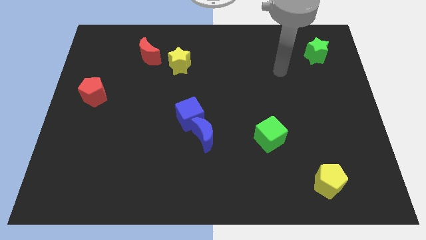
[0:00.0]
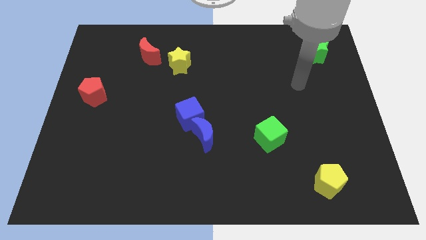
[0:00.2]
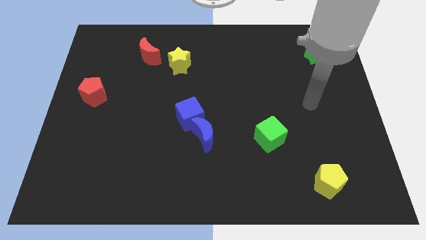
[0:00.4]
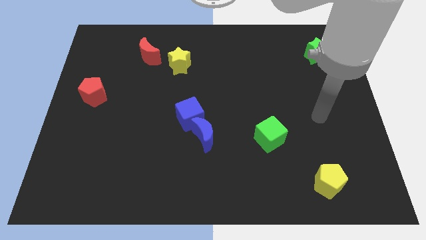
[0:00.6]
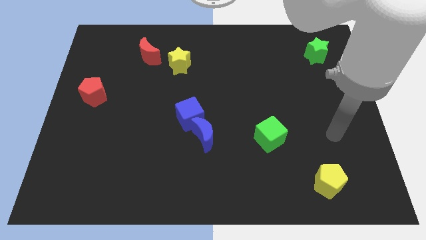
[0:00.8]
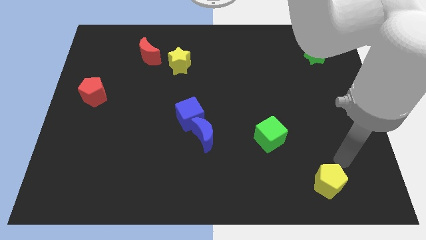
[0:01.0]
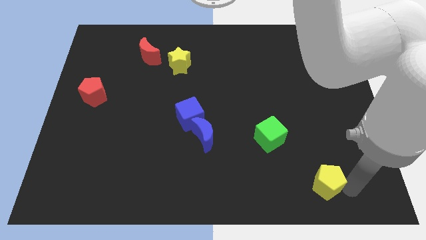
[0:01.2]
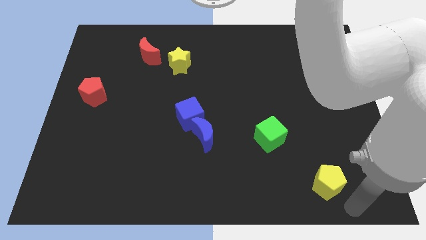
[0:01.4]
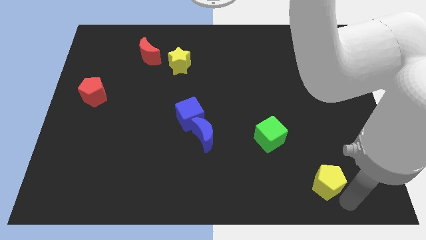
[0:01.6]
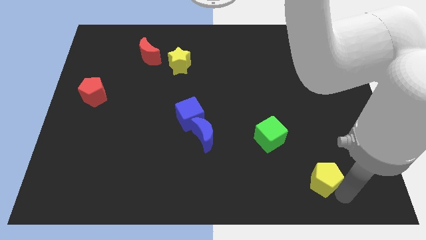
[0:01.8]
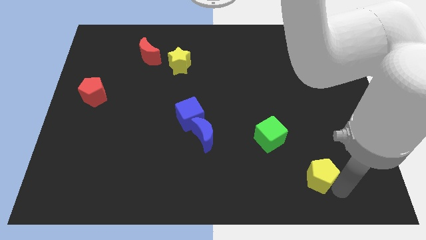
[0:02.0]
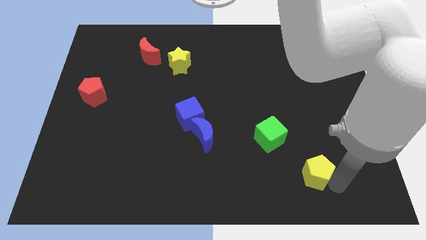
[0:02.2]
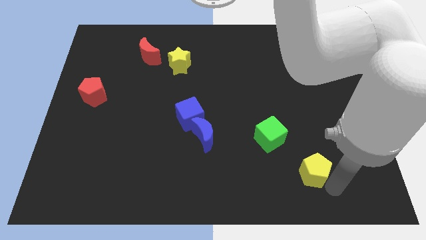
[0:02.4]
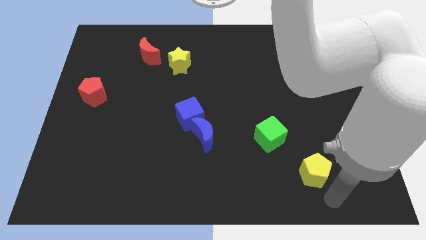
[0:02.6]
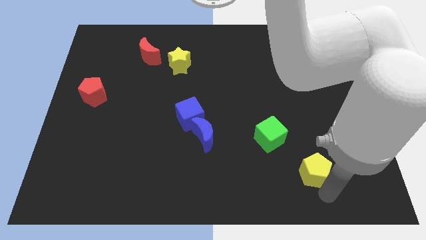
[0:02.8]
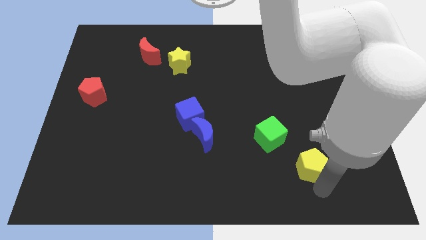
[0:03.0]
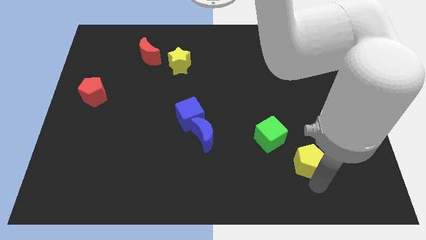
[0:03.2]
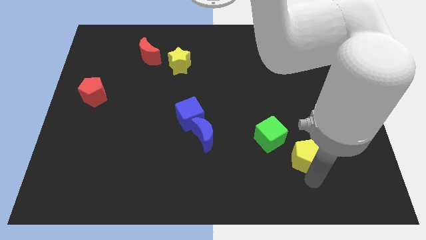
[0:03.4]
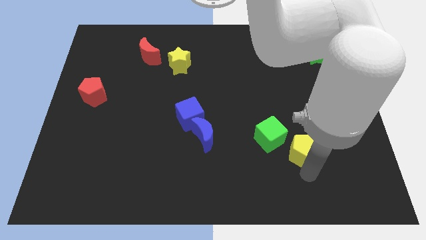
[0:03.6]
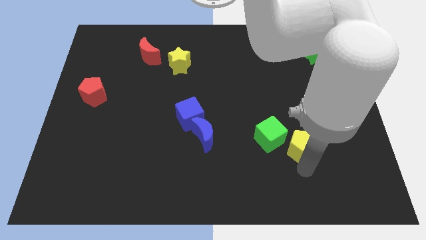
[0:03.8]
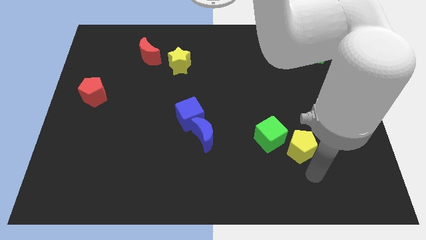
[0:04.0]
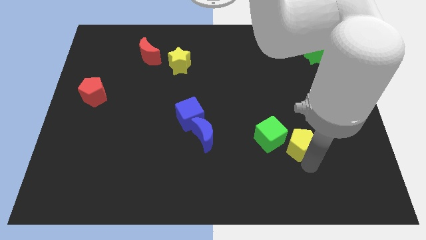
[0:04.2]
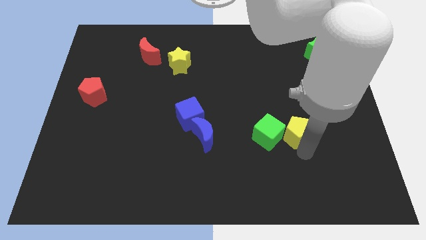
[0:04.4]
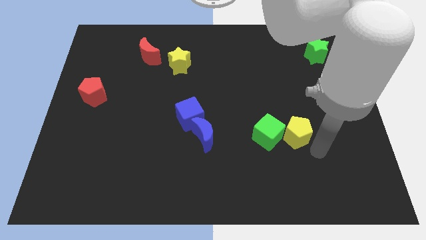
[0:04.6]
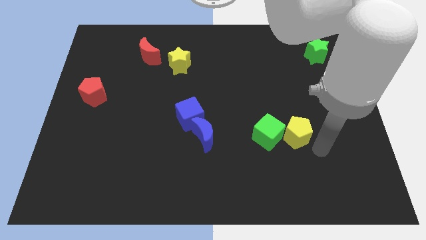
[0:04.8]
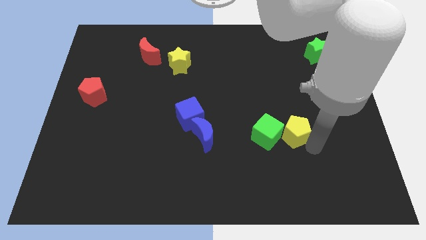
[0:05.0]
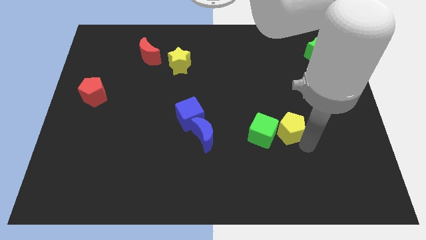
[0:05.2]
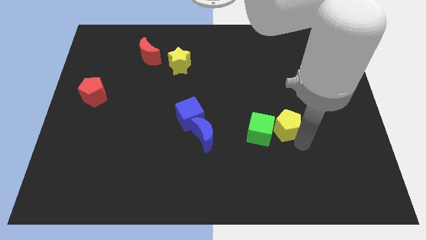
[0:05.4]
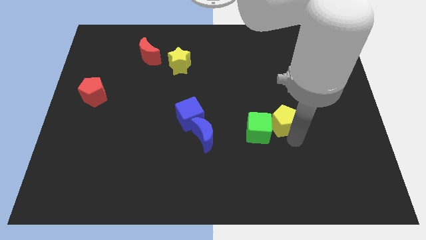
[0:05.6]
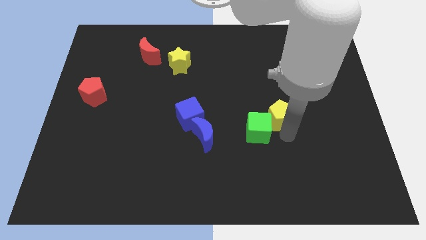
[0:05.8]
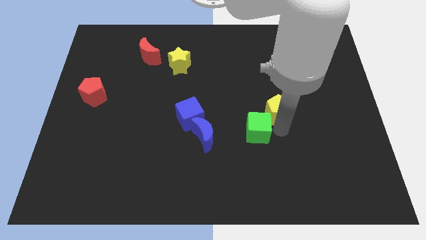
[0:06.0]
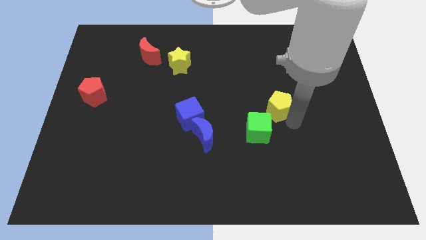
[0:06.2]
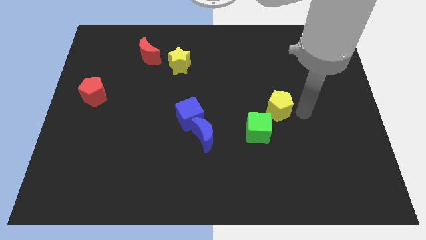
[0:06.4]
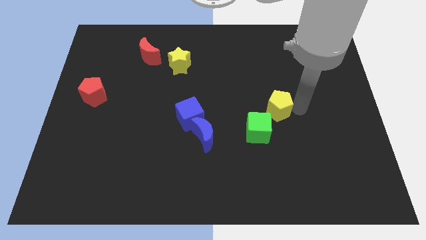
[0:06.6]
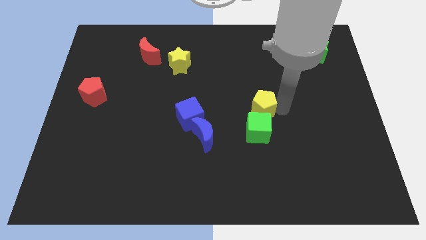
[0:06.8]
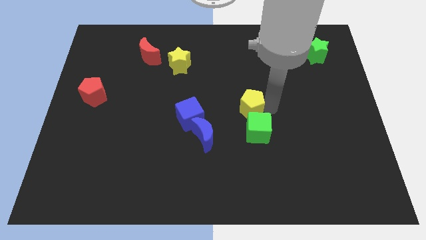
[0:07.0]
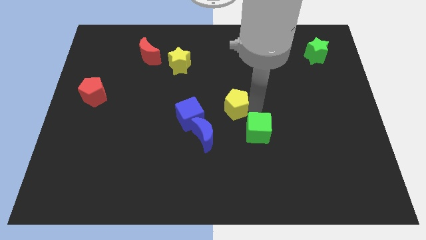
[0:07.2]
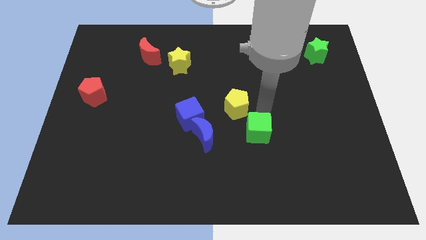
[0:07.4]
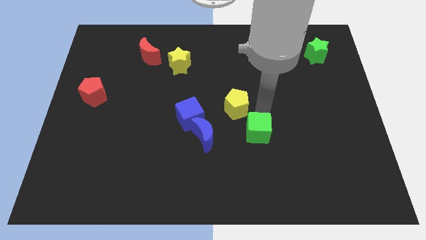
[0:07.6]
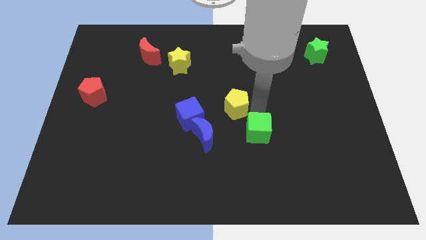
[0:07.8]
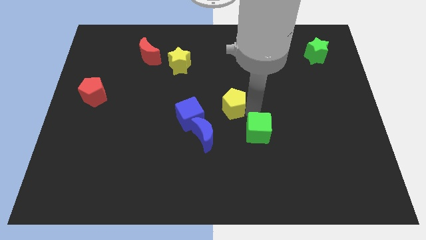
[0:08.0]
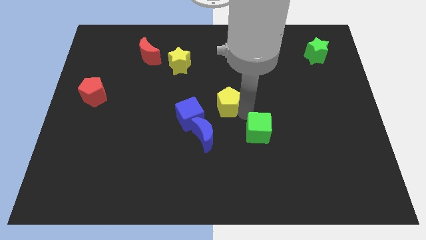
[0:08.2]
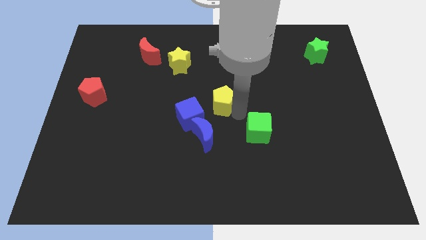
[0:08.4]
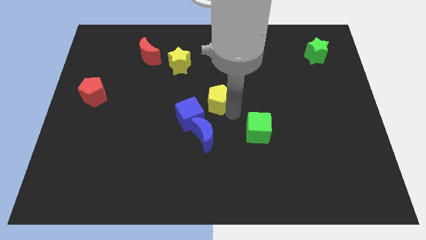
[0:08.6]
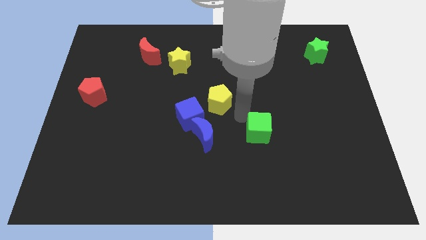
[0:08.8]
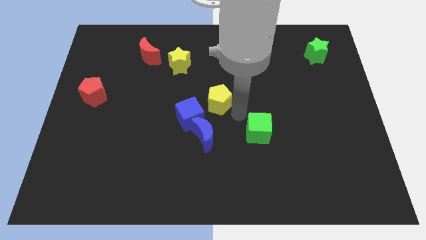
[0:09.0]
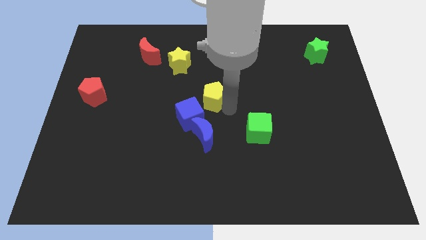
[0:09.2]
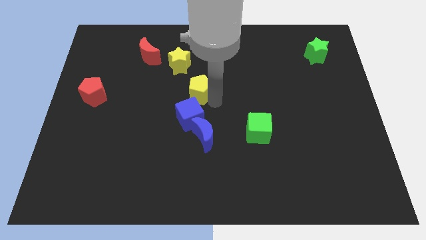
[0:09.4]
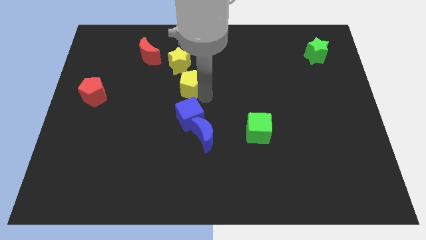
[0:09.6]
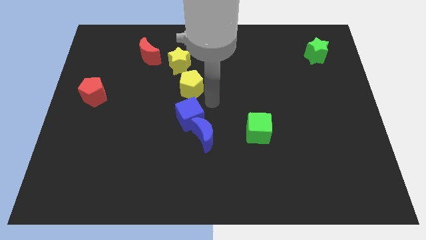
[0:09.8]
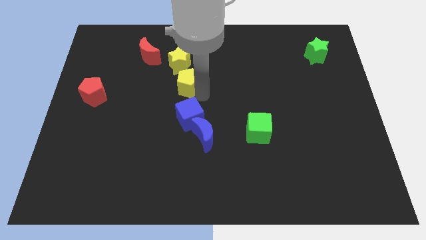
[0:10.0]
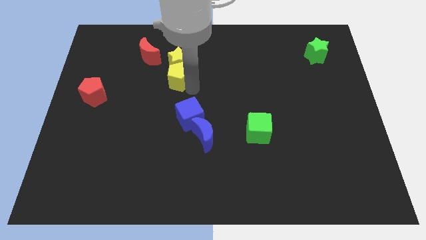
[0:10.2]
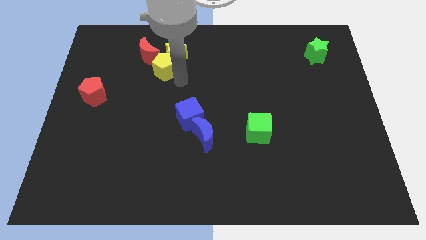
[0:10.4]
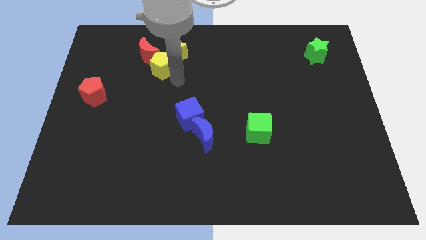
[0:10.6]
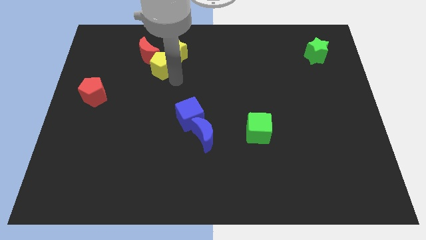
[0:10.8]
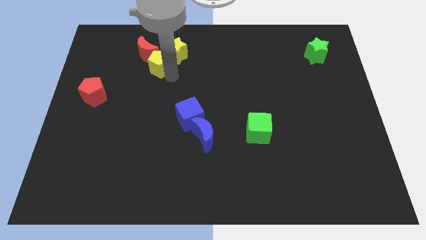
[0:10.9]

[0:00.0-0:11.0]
slide the yellow pentagon to the red moon

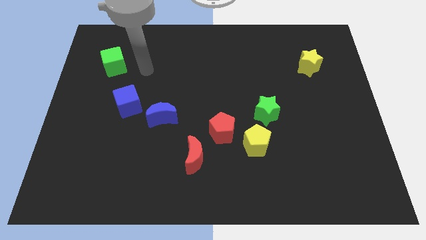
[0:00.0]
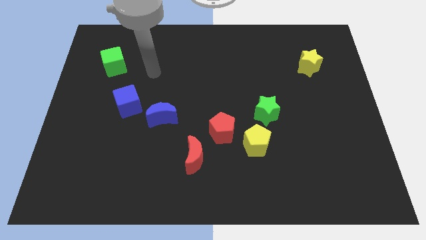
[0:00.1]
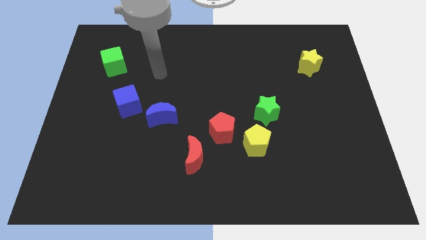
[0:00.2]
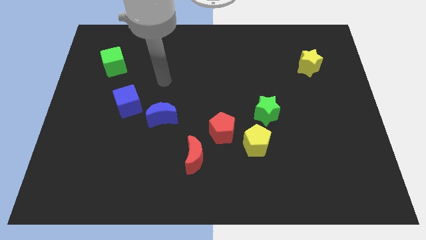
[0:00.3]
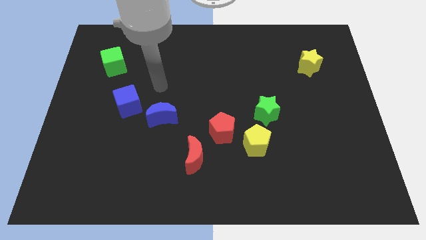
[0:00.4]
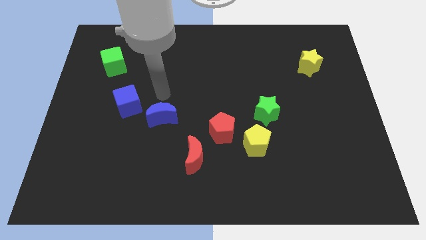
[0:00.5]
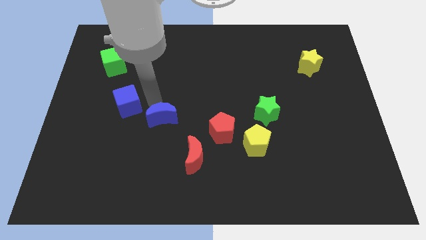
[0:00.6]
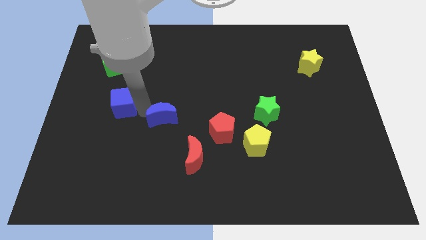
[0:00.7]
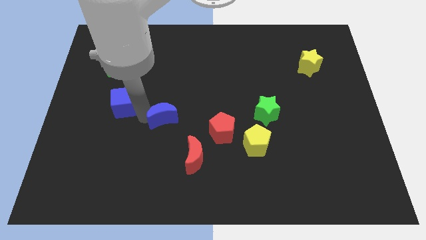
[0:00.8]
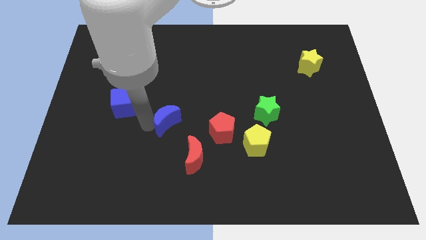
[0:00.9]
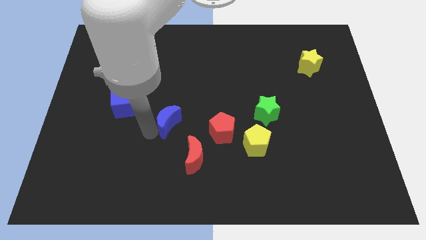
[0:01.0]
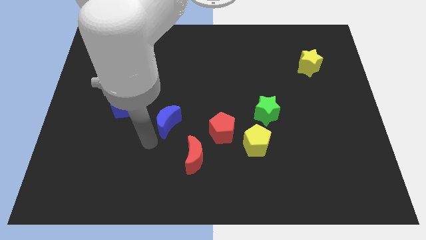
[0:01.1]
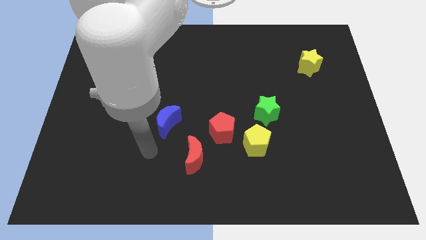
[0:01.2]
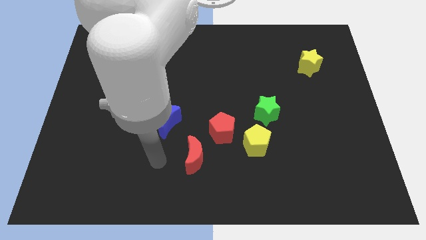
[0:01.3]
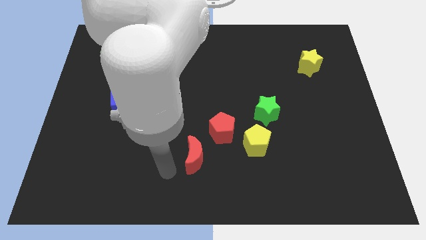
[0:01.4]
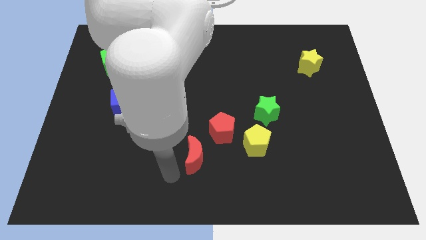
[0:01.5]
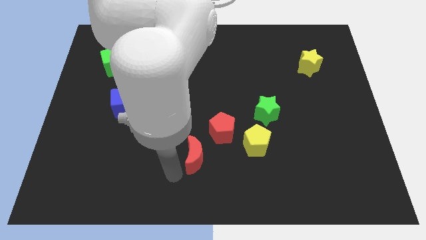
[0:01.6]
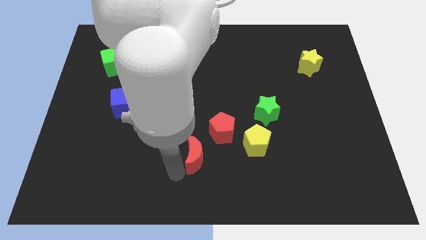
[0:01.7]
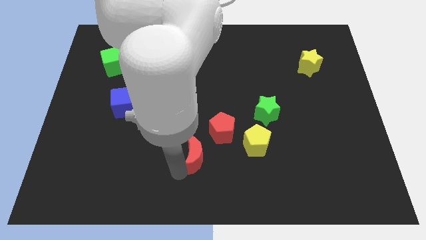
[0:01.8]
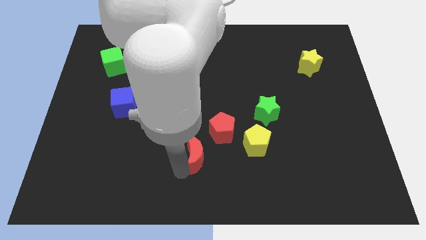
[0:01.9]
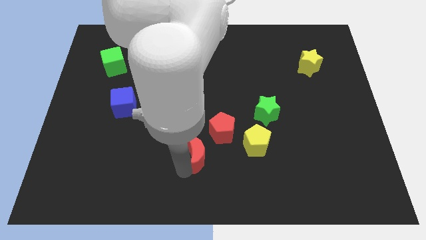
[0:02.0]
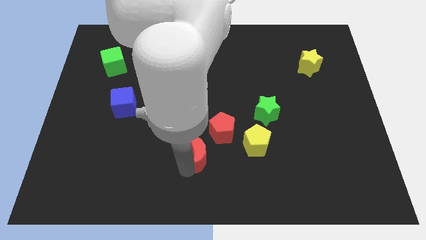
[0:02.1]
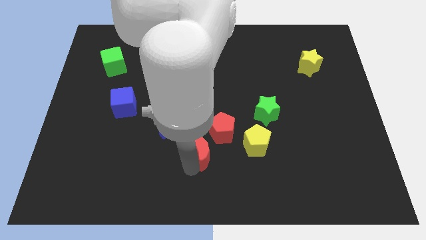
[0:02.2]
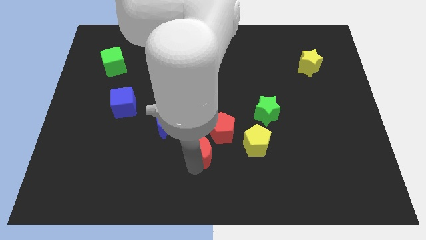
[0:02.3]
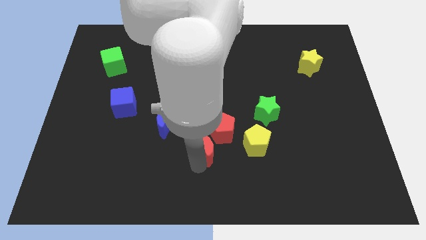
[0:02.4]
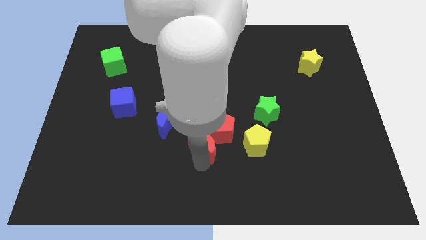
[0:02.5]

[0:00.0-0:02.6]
push the red moon close to the red pentagon
